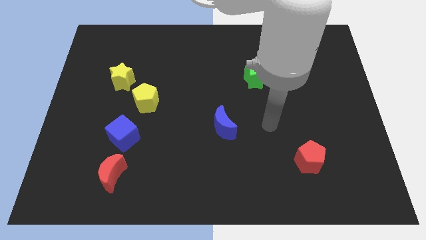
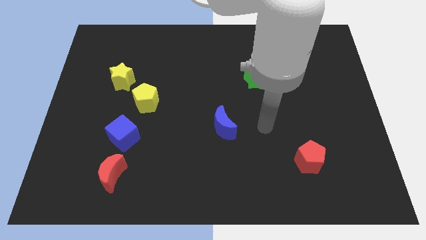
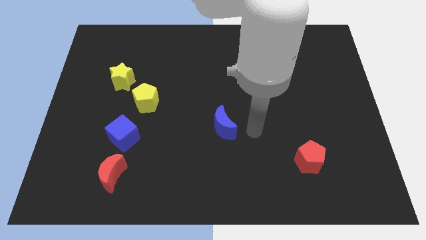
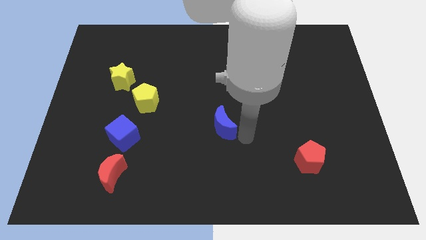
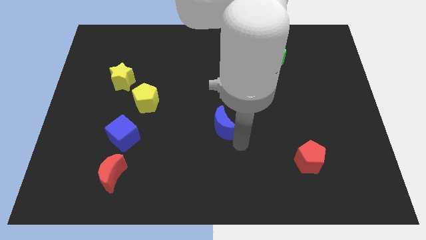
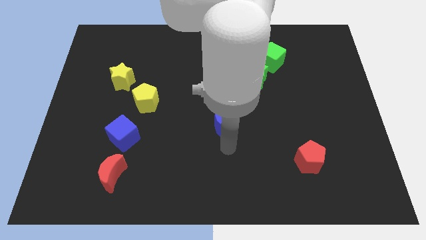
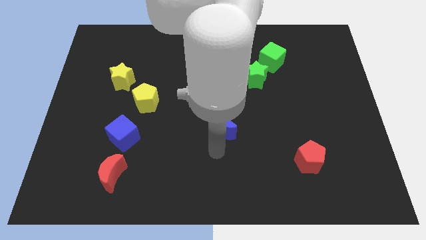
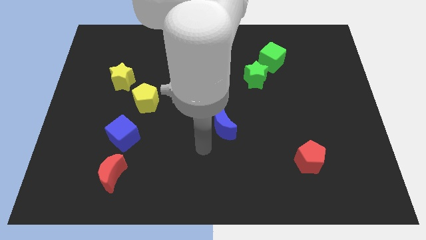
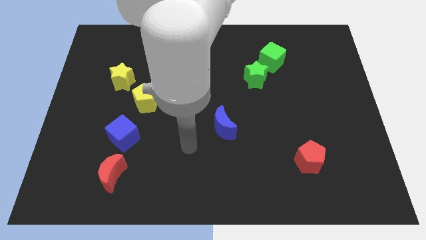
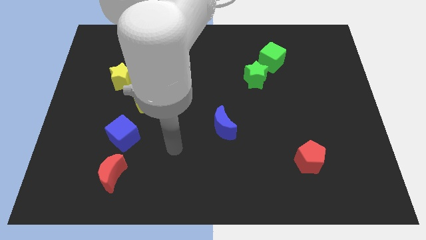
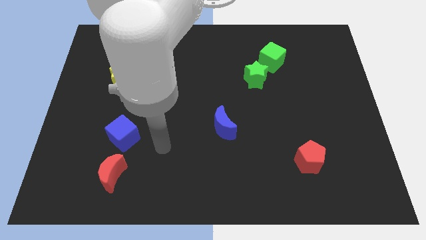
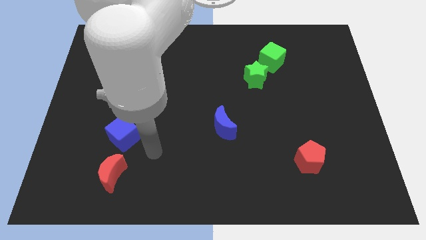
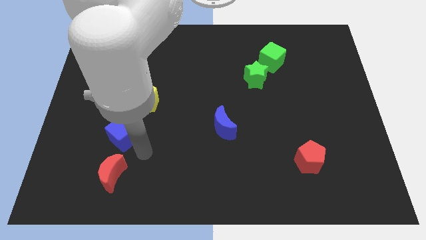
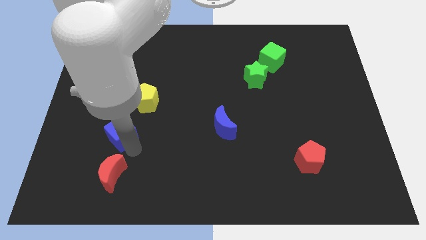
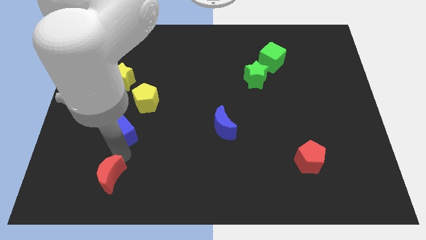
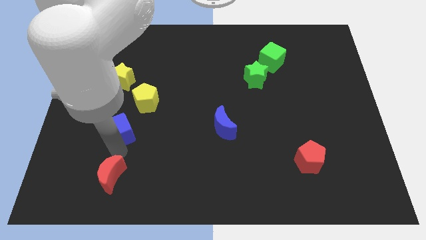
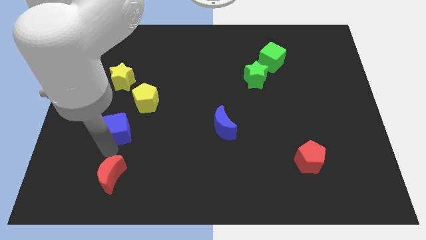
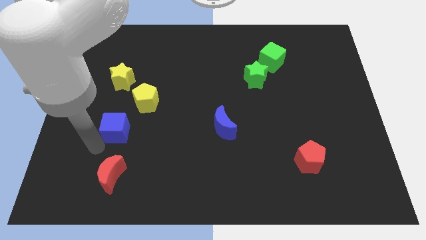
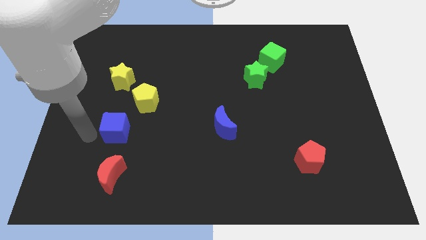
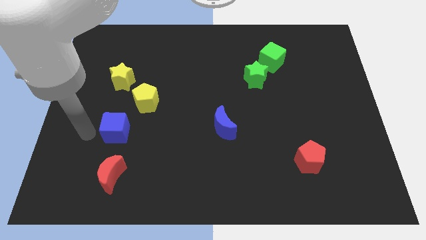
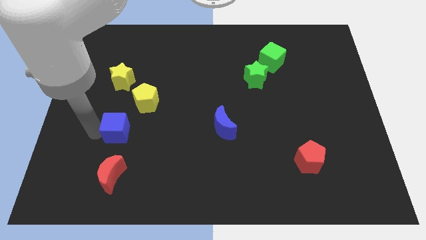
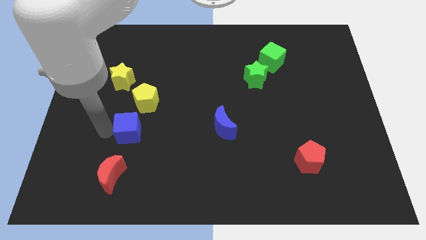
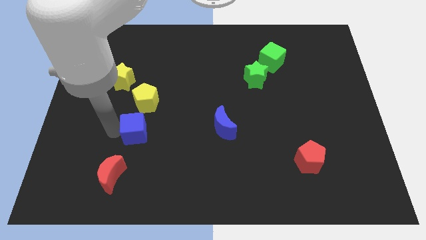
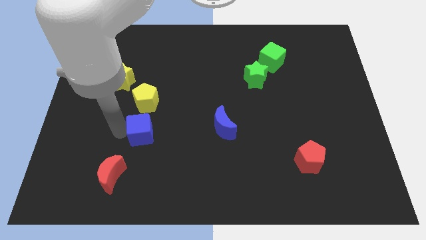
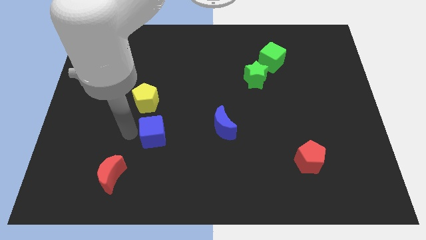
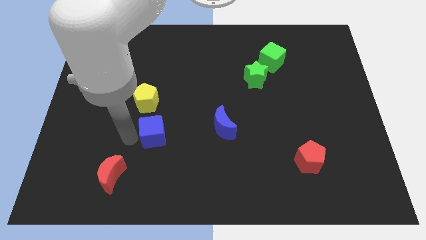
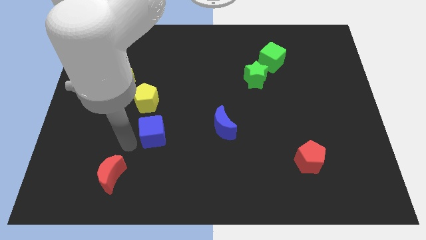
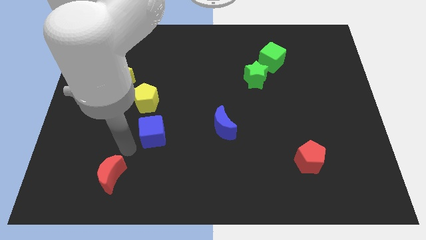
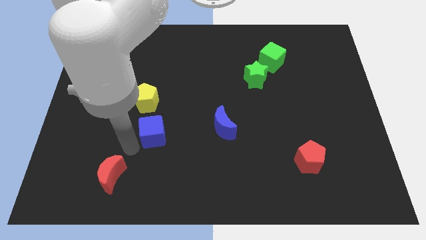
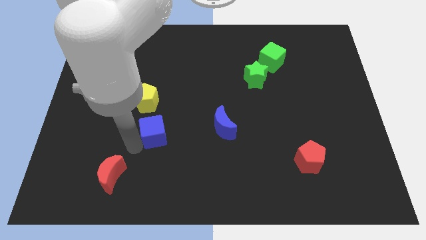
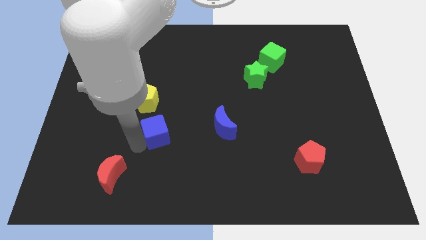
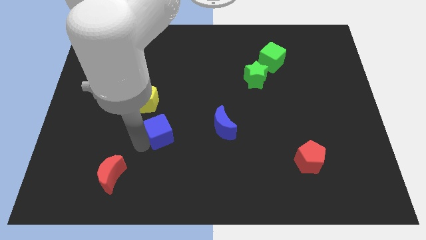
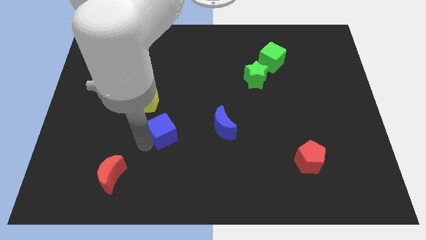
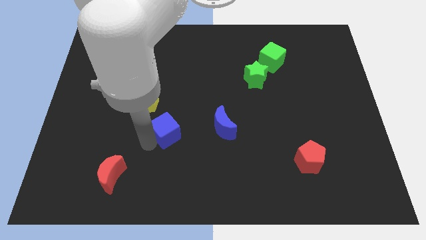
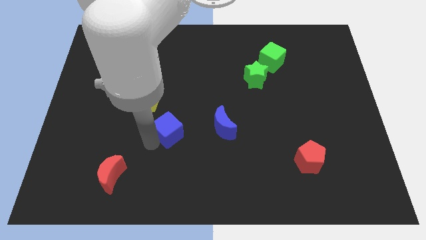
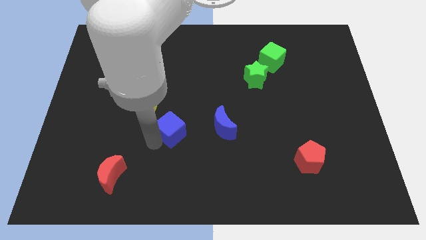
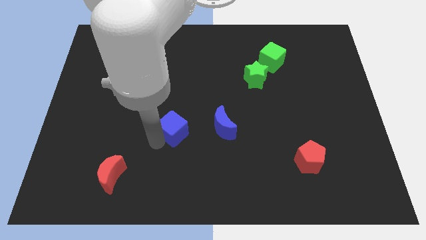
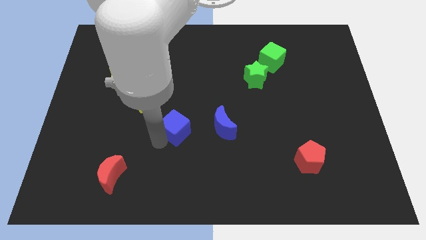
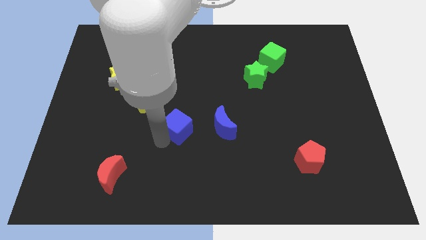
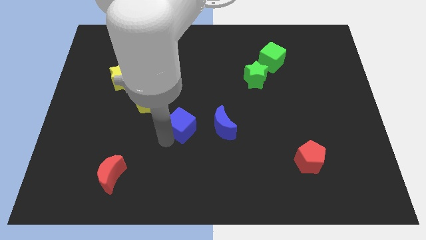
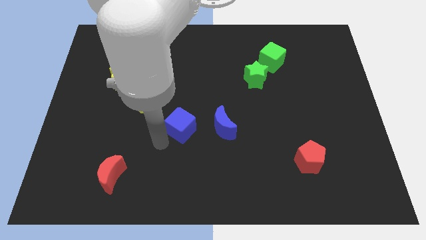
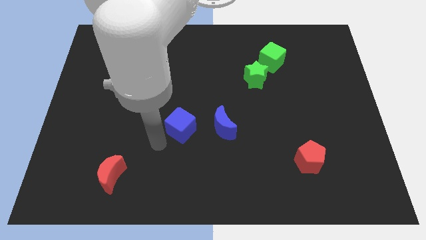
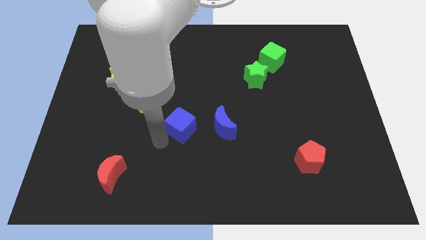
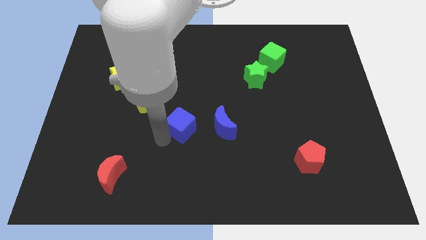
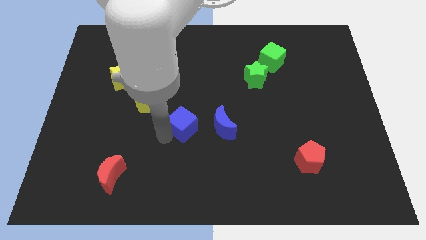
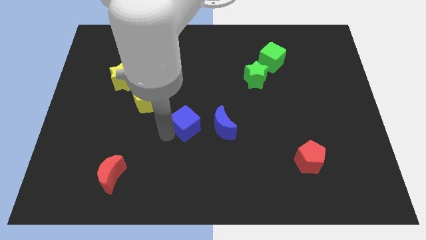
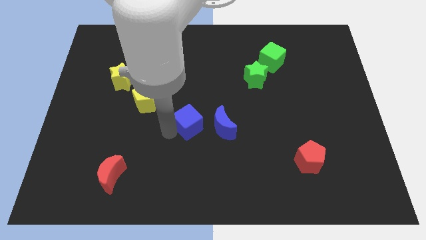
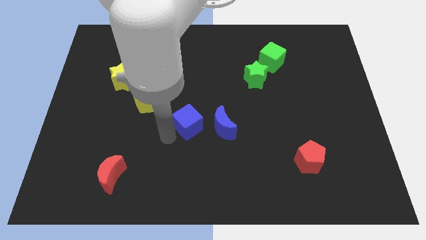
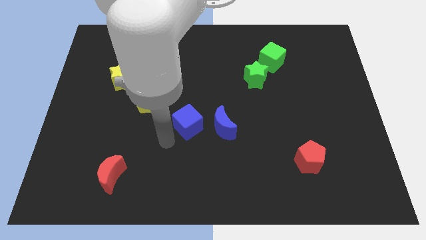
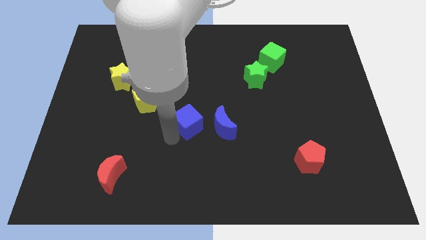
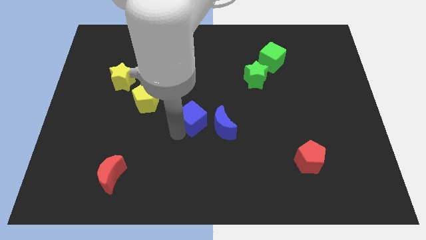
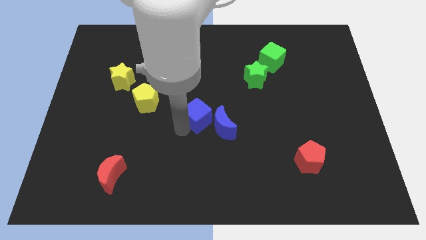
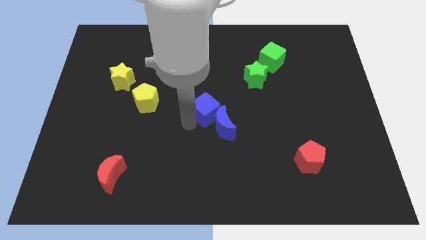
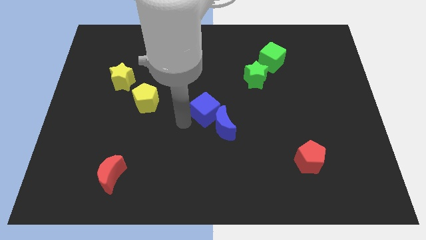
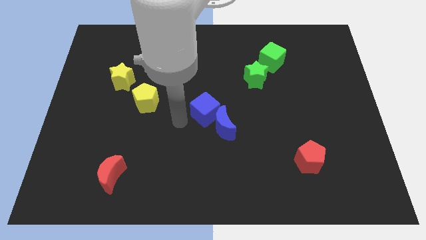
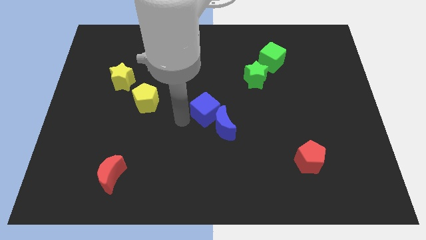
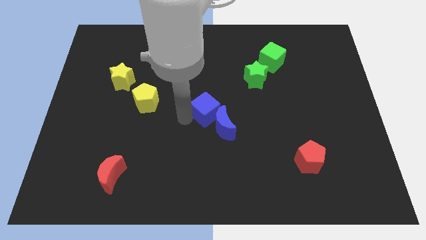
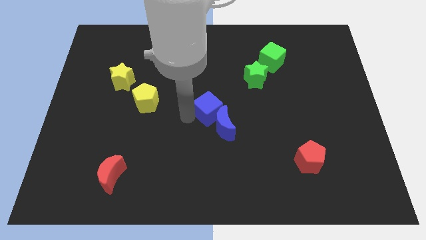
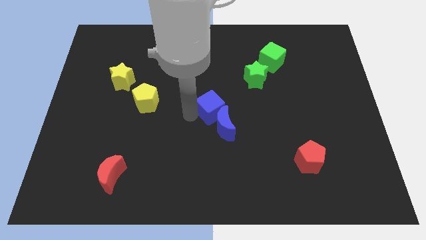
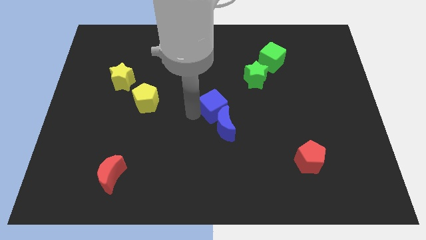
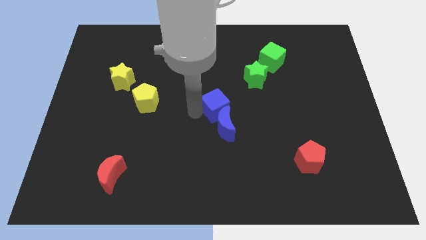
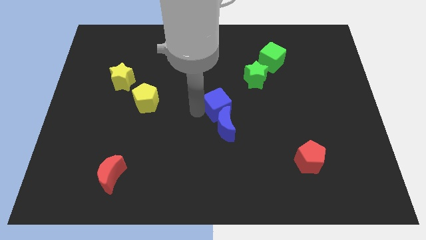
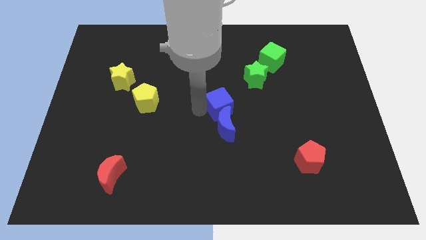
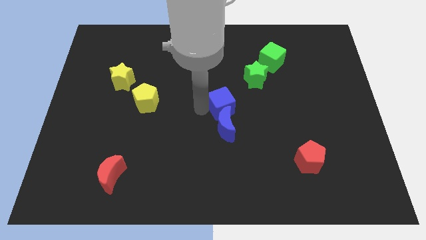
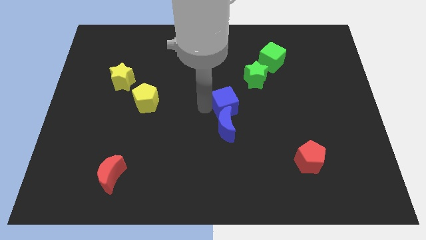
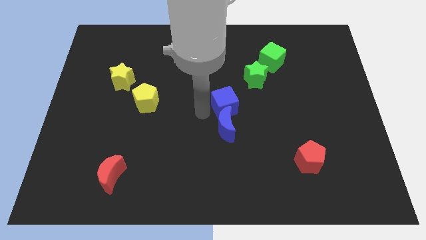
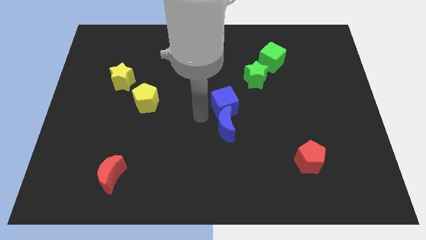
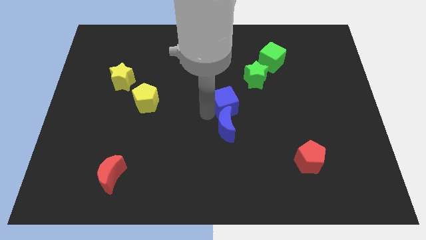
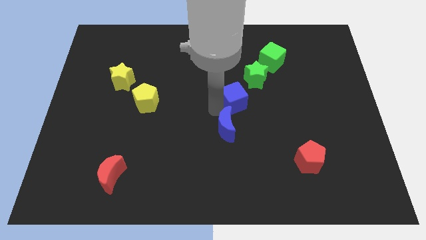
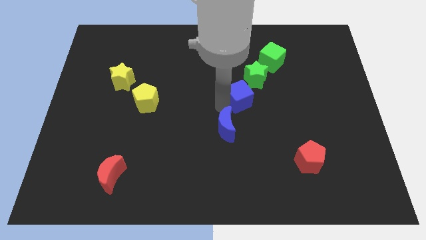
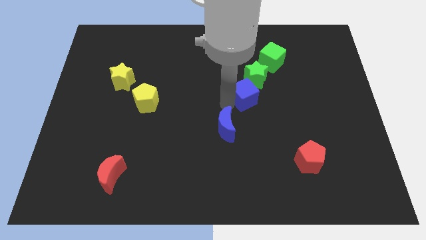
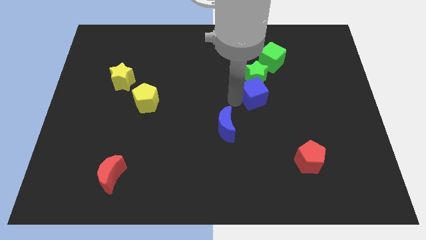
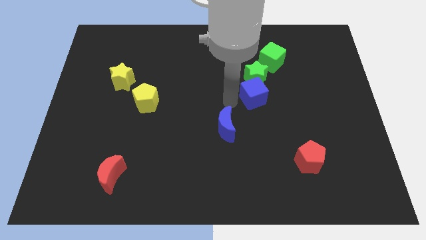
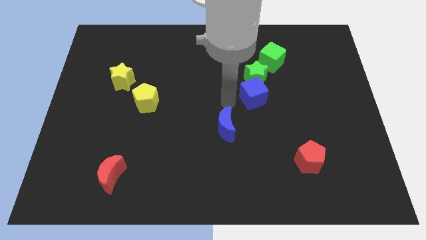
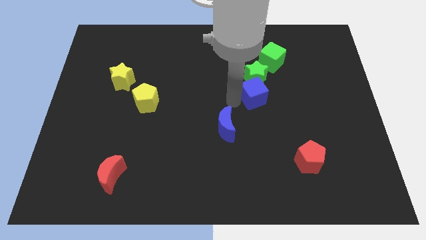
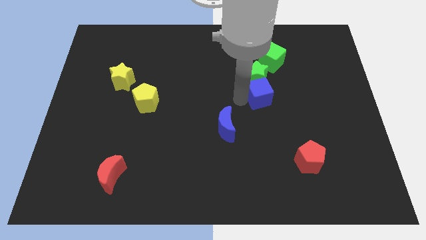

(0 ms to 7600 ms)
put the blue cube to the bottom of the green cube
